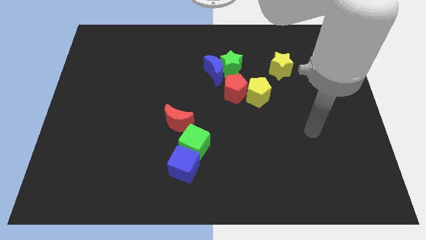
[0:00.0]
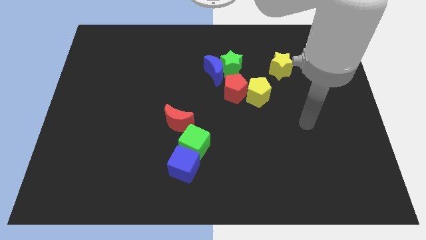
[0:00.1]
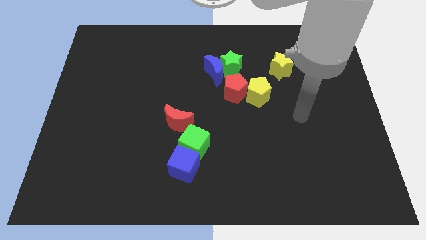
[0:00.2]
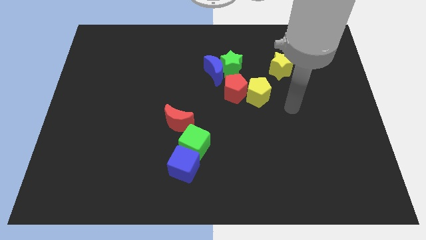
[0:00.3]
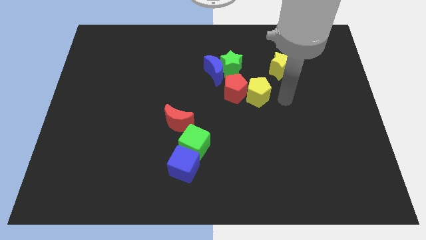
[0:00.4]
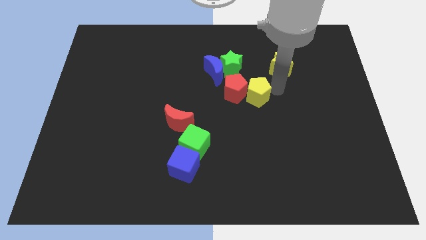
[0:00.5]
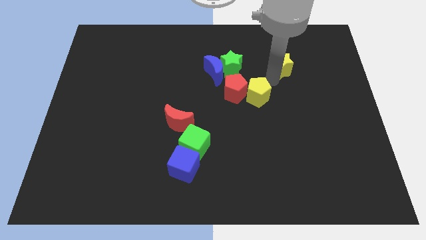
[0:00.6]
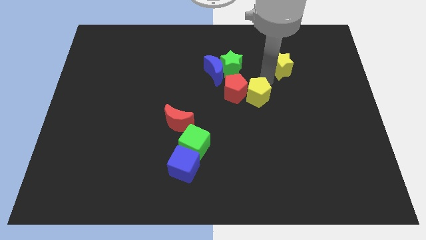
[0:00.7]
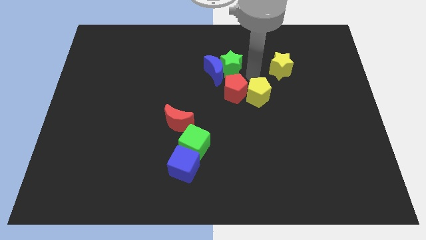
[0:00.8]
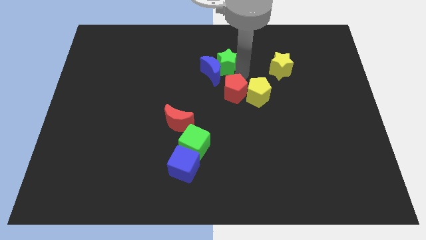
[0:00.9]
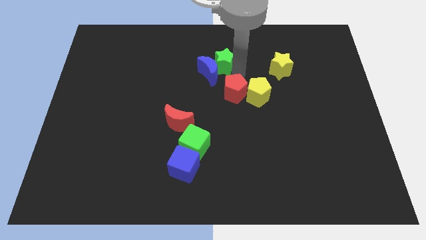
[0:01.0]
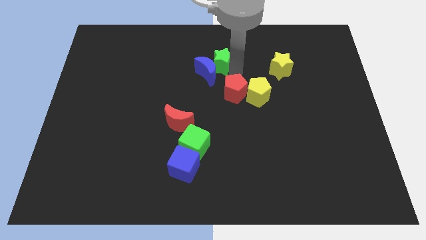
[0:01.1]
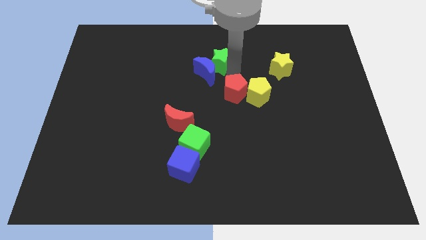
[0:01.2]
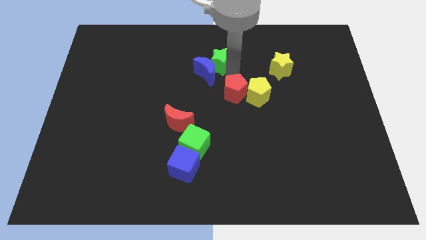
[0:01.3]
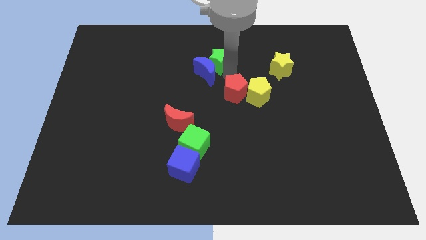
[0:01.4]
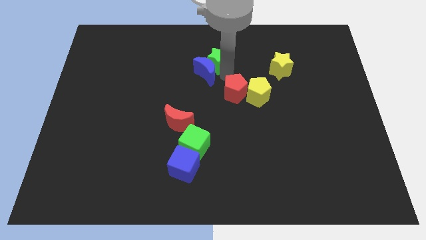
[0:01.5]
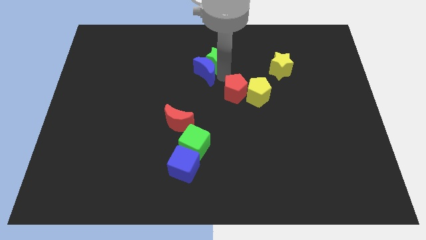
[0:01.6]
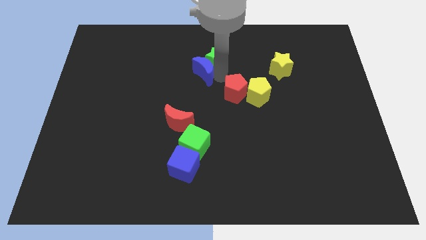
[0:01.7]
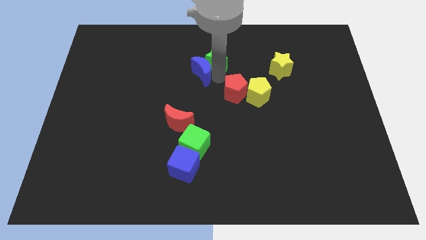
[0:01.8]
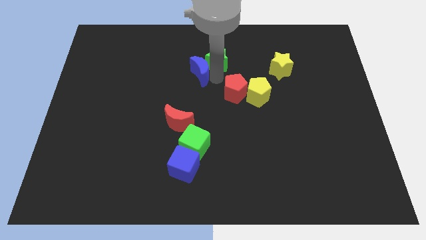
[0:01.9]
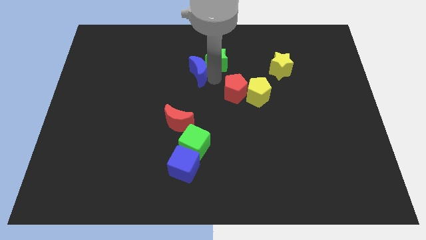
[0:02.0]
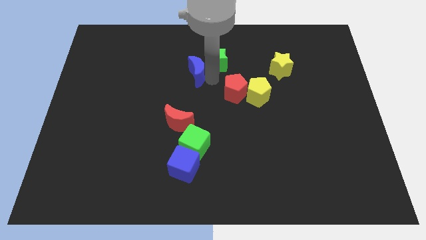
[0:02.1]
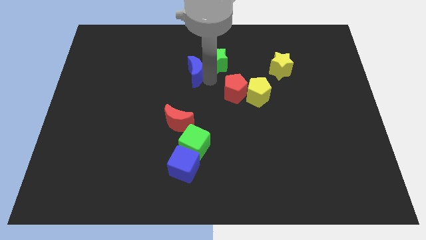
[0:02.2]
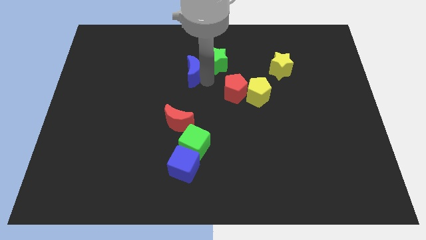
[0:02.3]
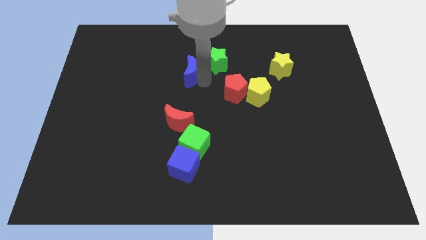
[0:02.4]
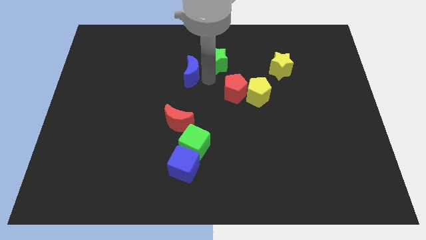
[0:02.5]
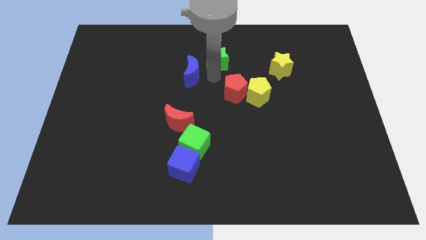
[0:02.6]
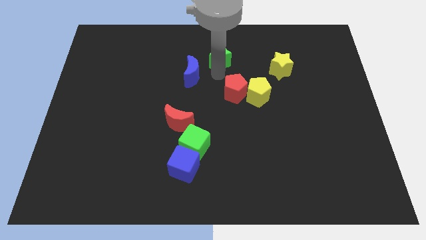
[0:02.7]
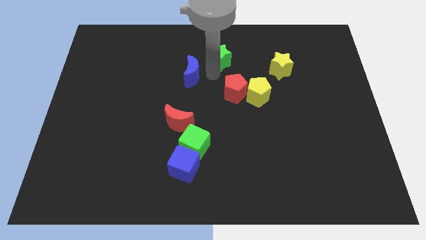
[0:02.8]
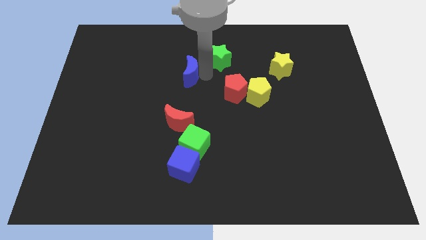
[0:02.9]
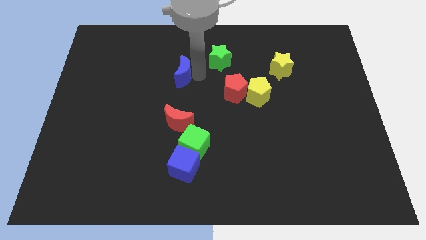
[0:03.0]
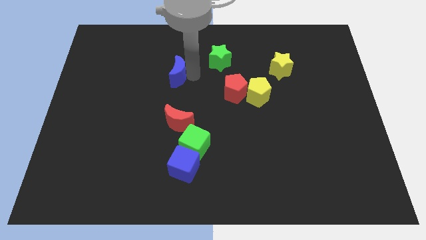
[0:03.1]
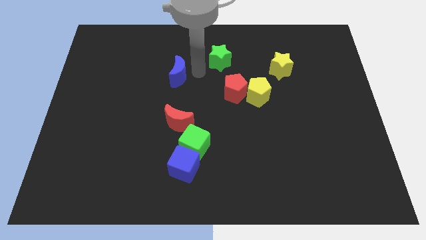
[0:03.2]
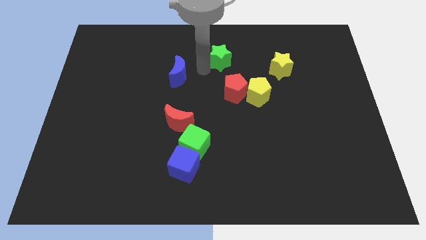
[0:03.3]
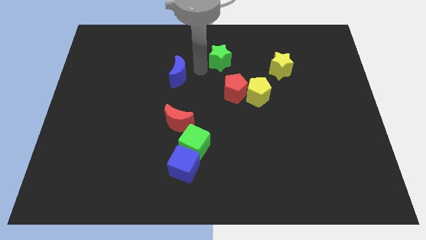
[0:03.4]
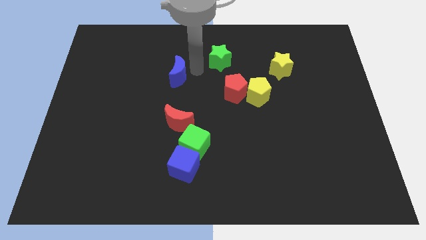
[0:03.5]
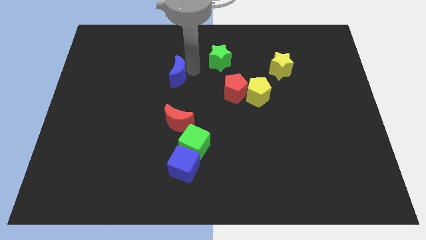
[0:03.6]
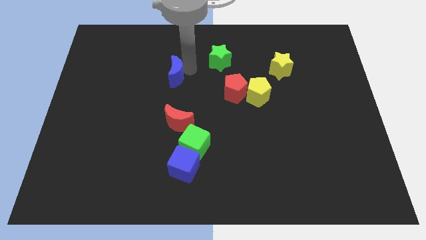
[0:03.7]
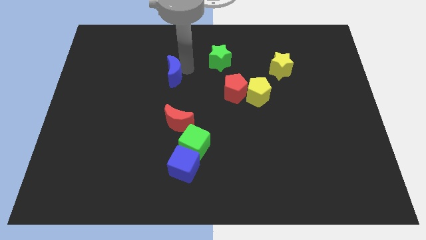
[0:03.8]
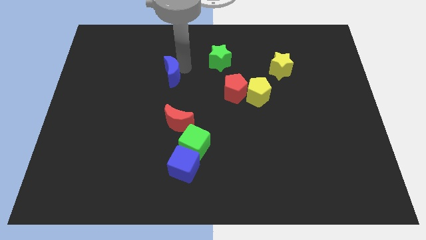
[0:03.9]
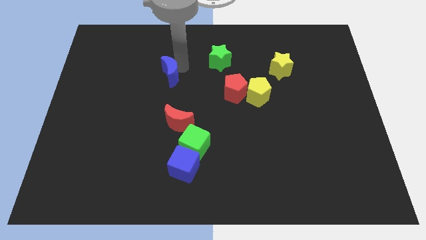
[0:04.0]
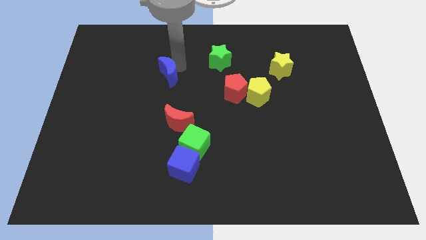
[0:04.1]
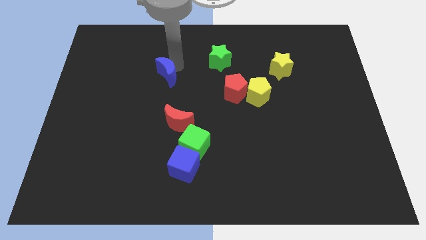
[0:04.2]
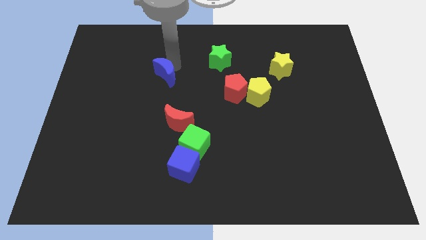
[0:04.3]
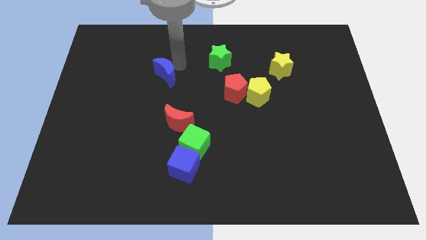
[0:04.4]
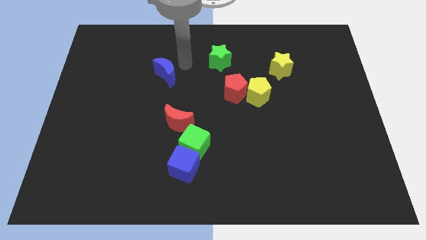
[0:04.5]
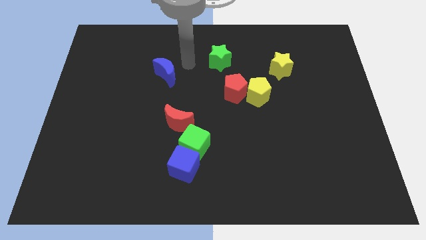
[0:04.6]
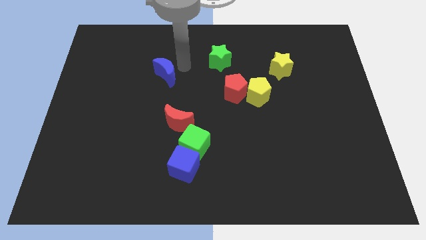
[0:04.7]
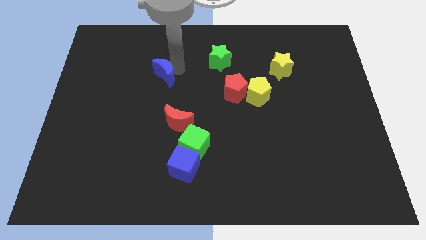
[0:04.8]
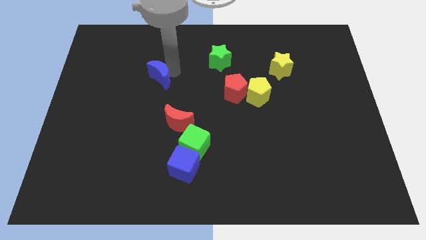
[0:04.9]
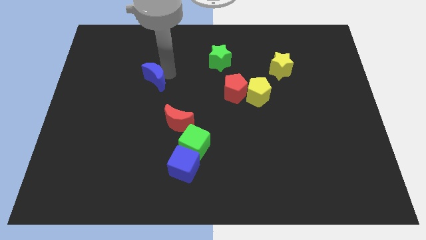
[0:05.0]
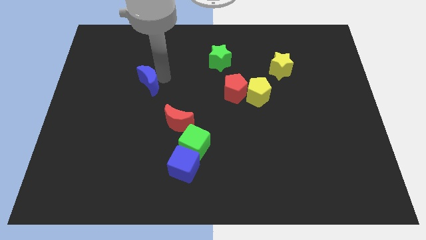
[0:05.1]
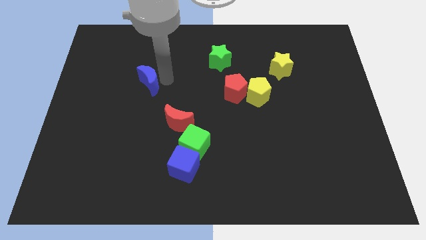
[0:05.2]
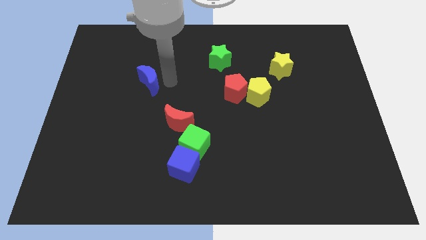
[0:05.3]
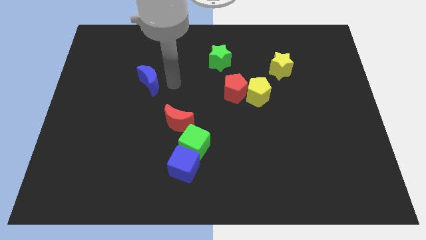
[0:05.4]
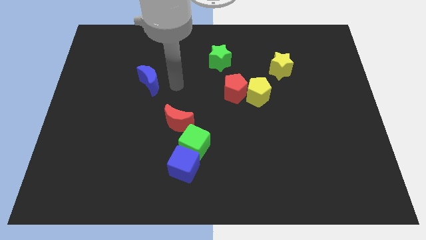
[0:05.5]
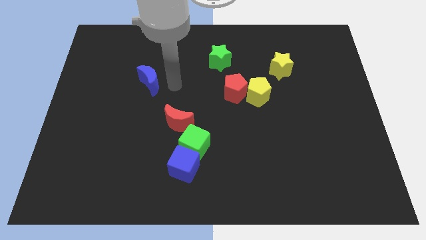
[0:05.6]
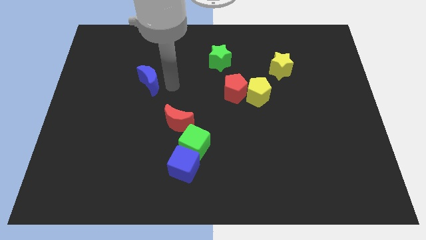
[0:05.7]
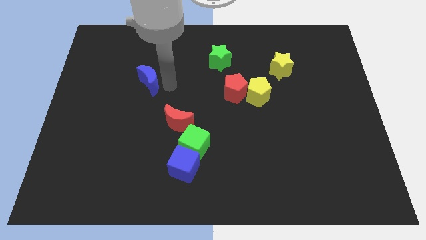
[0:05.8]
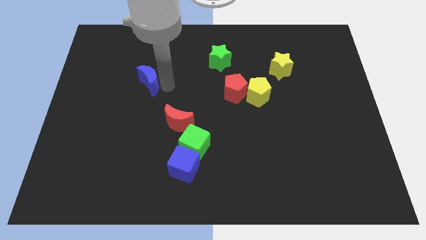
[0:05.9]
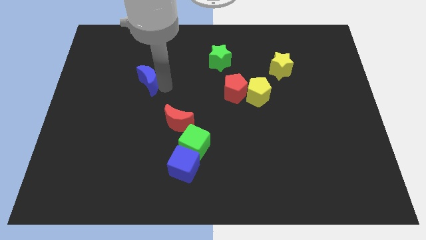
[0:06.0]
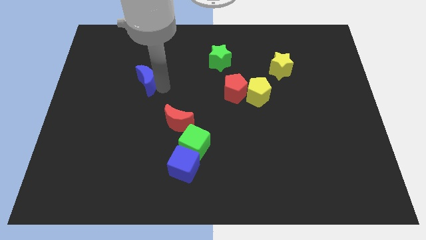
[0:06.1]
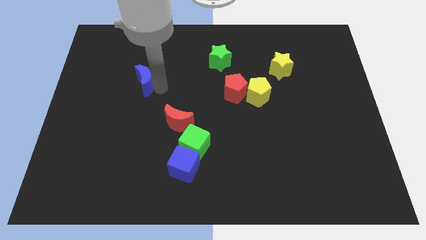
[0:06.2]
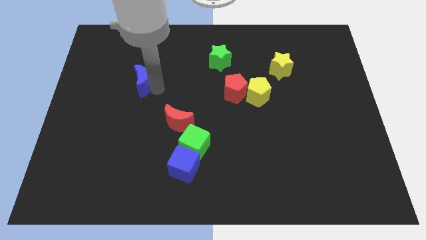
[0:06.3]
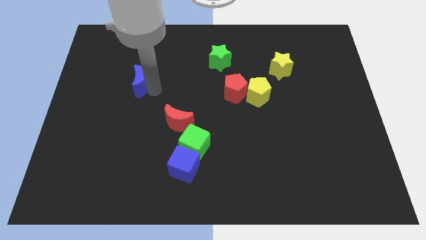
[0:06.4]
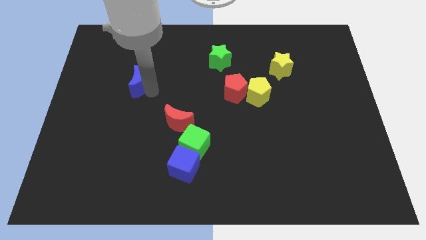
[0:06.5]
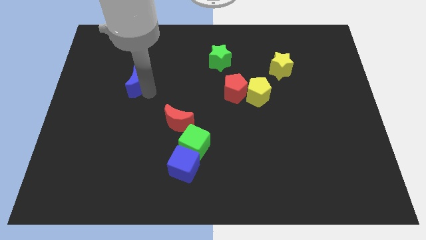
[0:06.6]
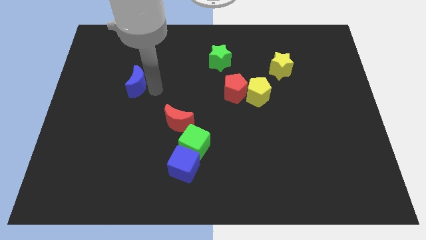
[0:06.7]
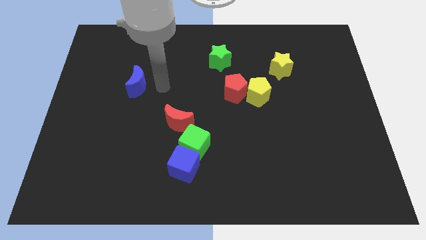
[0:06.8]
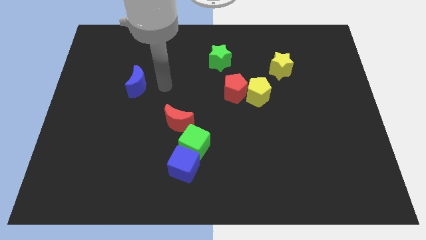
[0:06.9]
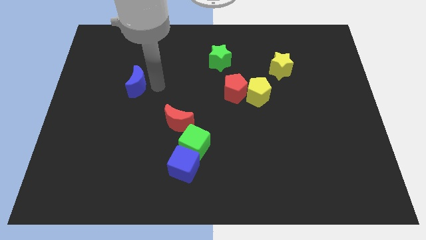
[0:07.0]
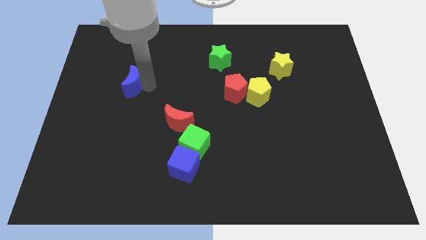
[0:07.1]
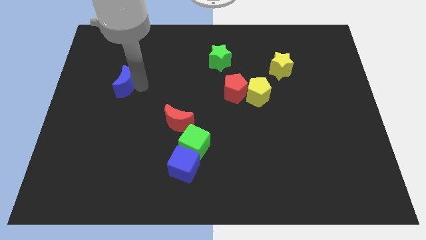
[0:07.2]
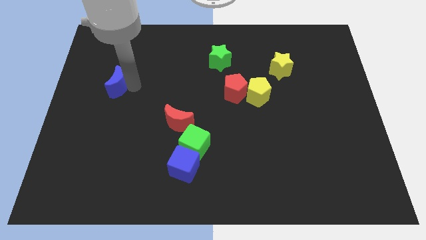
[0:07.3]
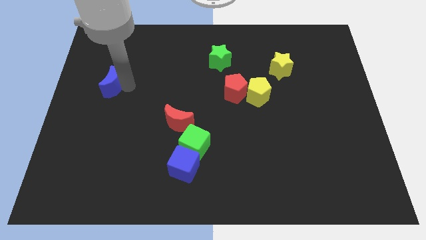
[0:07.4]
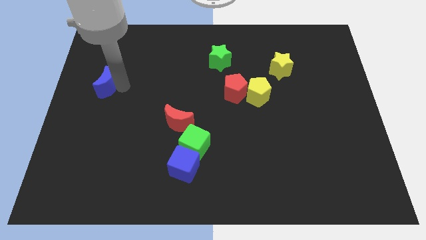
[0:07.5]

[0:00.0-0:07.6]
move the blue moon to the left side of the board
